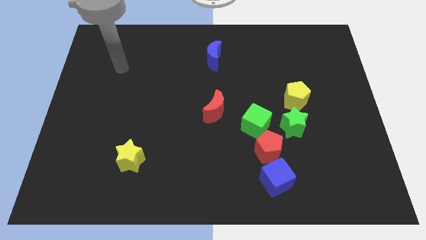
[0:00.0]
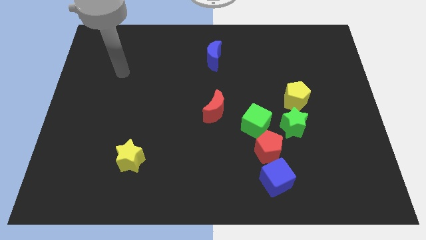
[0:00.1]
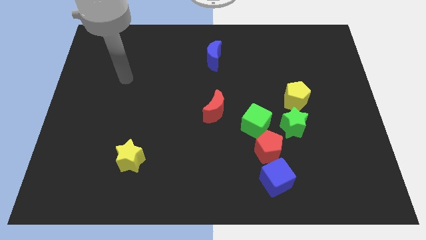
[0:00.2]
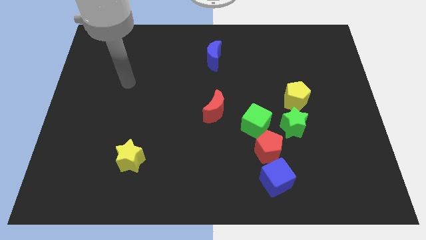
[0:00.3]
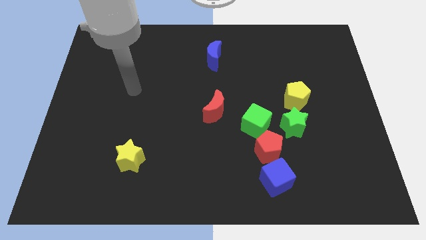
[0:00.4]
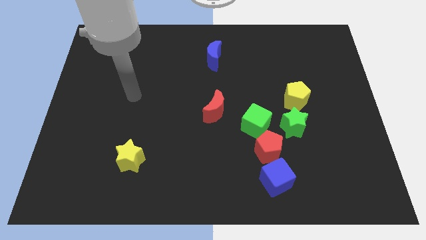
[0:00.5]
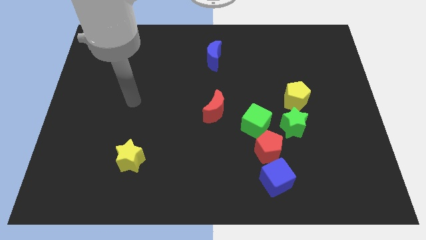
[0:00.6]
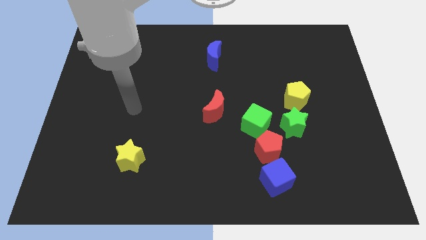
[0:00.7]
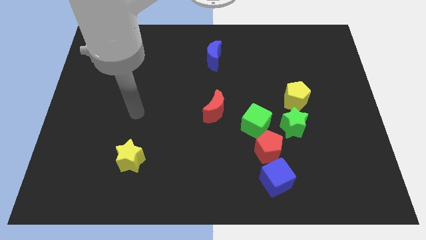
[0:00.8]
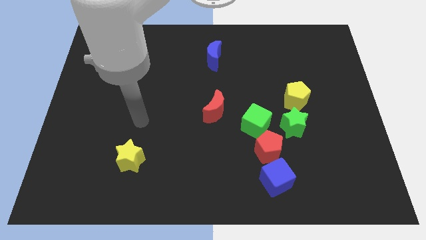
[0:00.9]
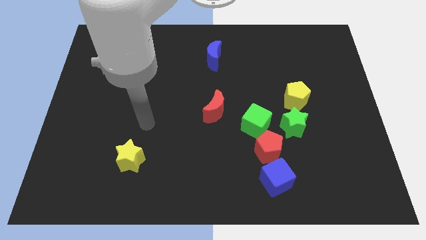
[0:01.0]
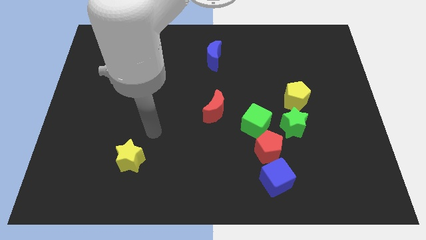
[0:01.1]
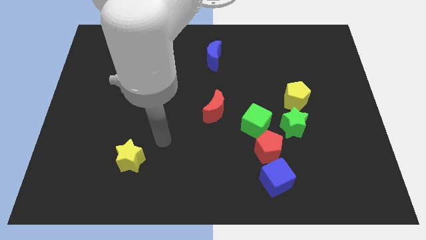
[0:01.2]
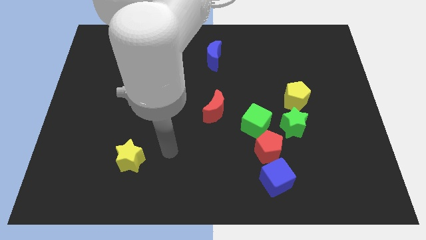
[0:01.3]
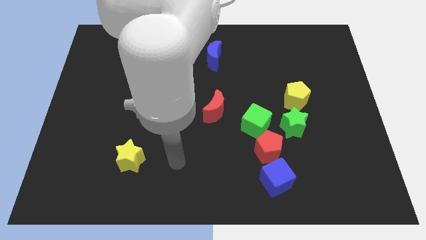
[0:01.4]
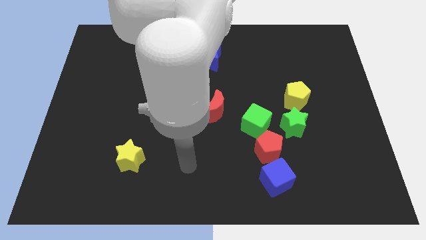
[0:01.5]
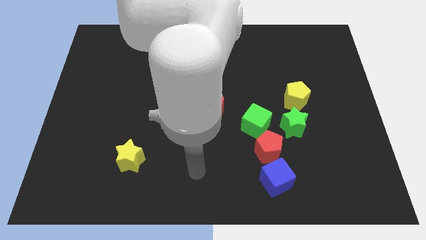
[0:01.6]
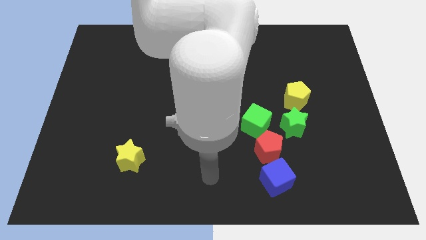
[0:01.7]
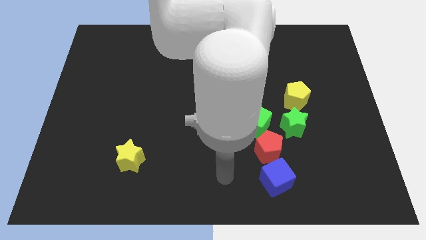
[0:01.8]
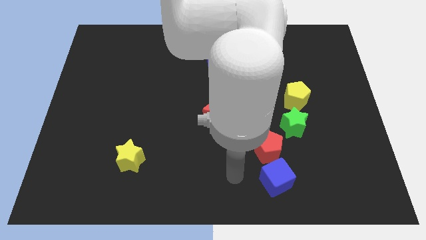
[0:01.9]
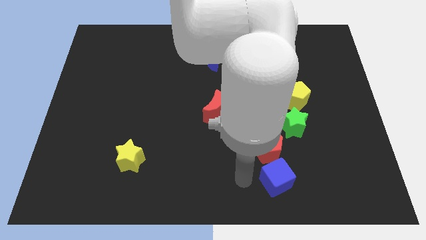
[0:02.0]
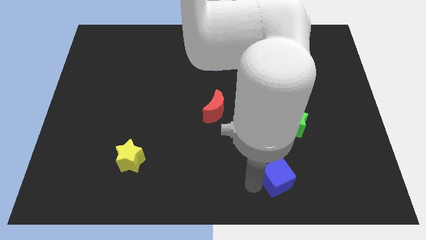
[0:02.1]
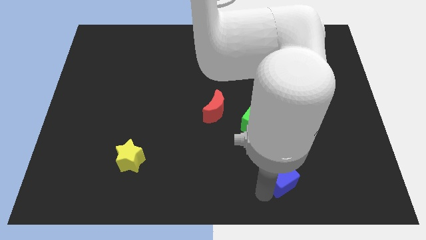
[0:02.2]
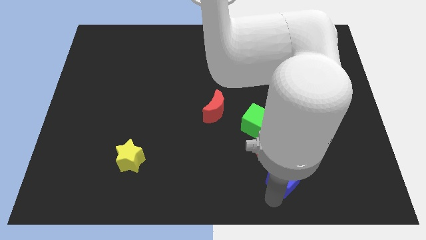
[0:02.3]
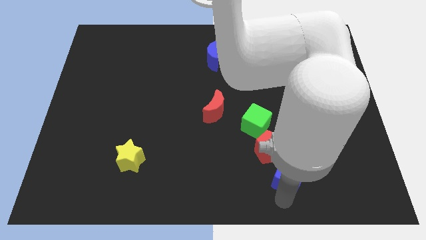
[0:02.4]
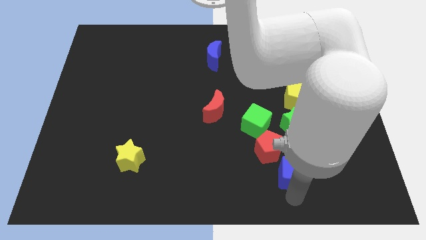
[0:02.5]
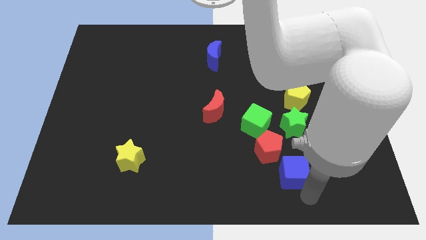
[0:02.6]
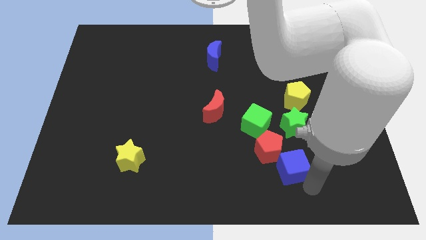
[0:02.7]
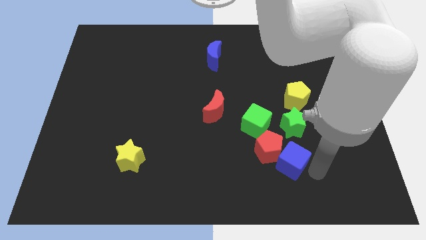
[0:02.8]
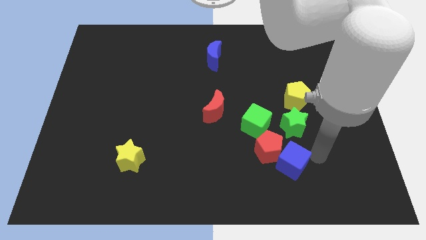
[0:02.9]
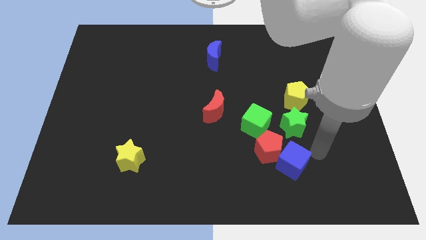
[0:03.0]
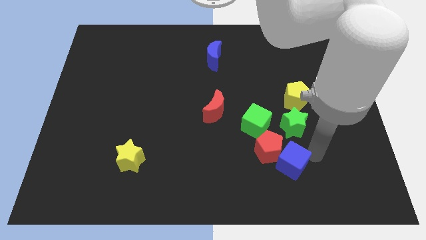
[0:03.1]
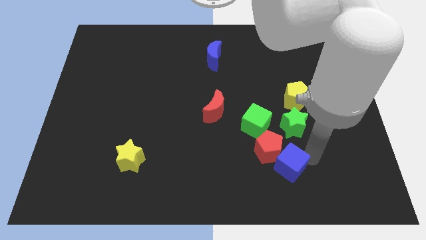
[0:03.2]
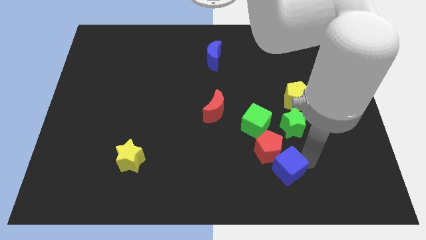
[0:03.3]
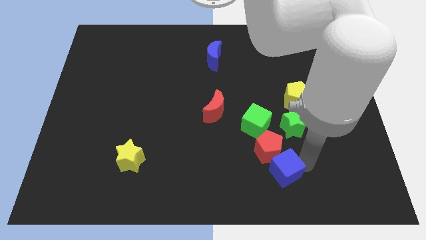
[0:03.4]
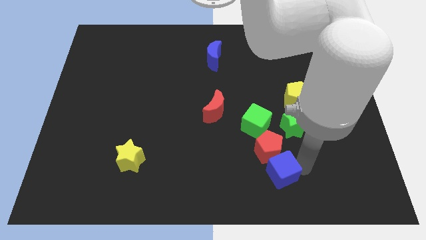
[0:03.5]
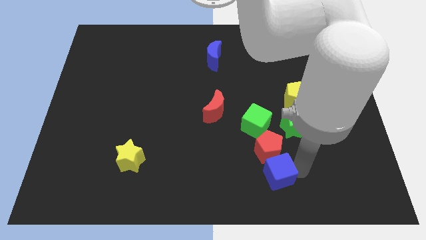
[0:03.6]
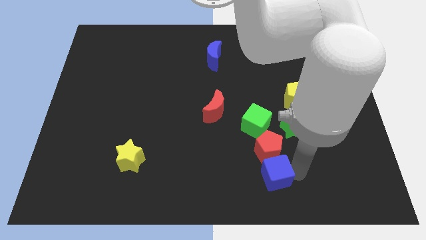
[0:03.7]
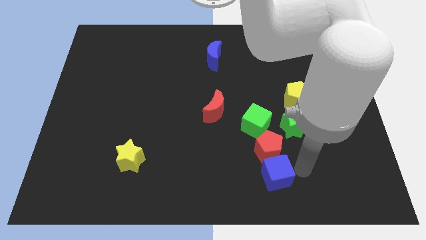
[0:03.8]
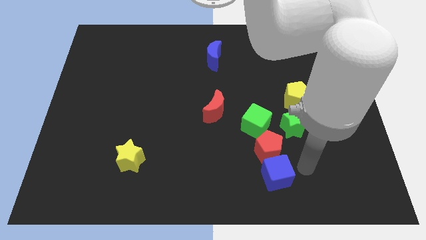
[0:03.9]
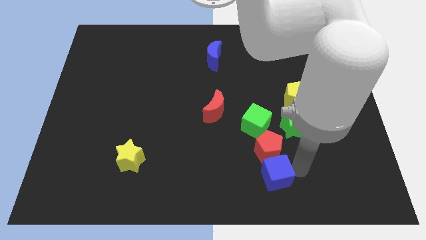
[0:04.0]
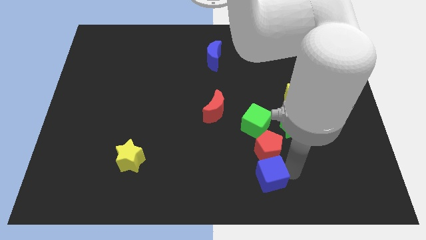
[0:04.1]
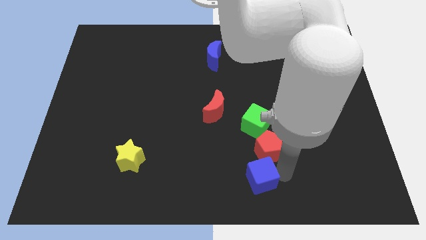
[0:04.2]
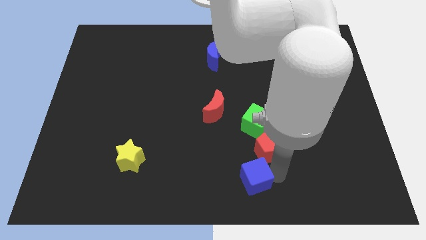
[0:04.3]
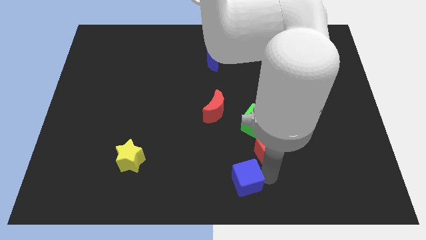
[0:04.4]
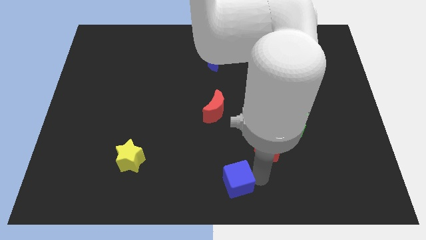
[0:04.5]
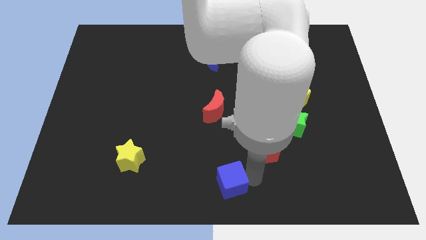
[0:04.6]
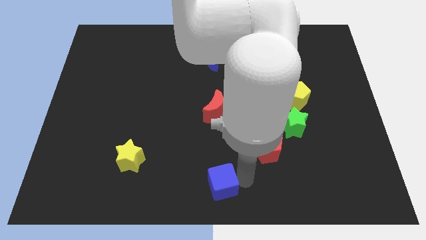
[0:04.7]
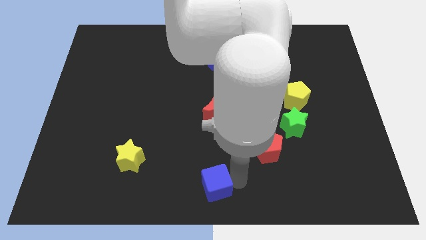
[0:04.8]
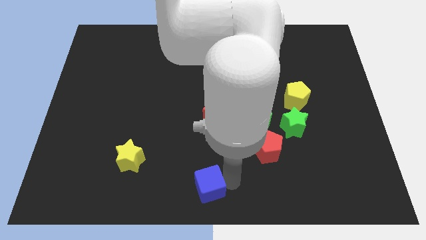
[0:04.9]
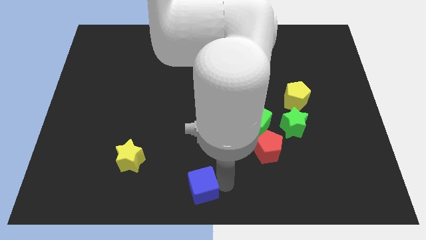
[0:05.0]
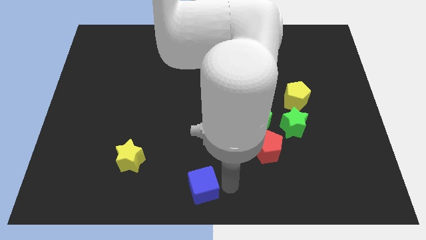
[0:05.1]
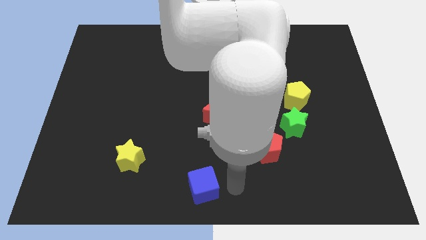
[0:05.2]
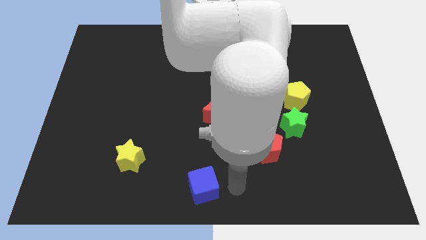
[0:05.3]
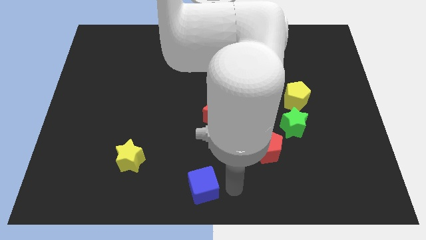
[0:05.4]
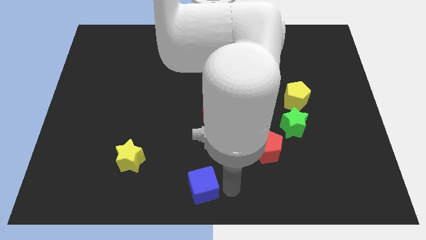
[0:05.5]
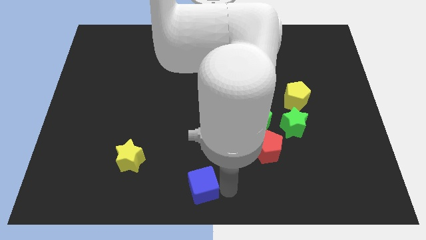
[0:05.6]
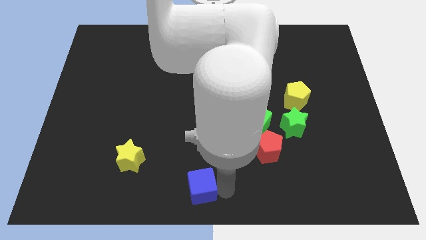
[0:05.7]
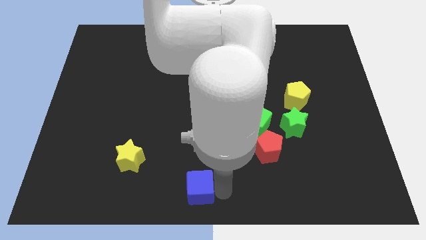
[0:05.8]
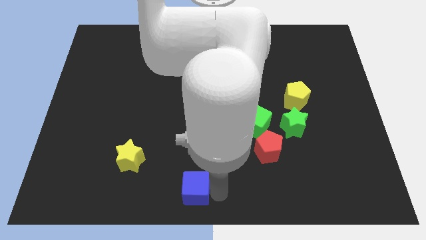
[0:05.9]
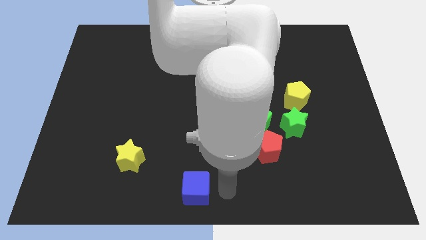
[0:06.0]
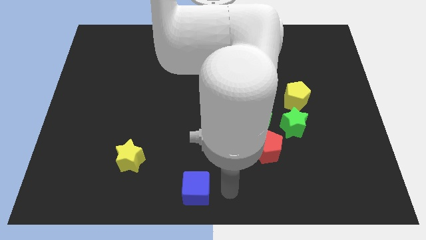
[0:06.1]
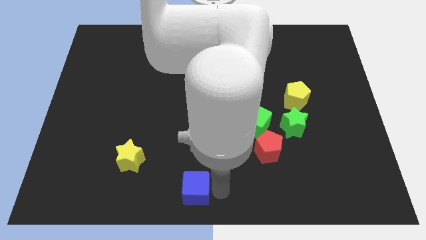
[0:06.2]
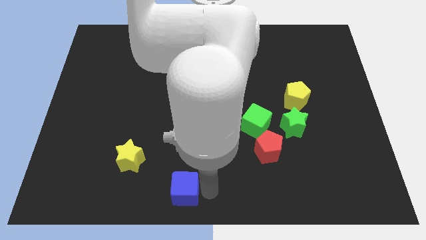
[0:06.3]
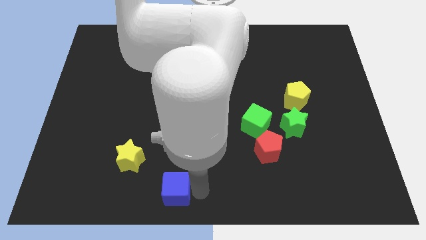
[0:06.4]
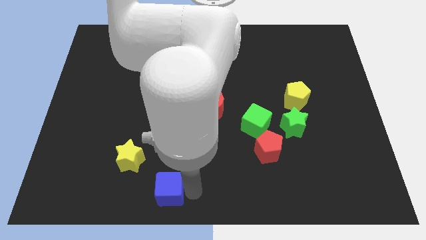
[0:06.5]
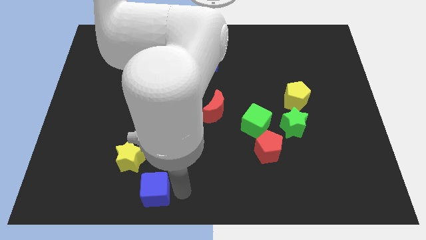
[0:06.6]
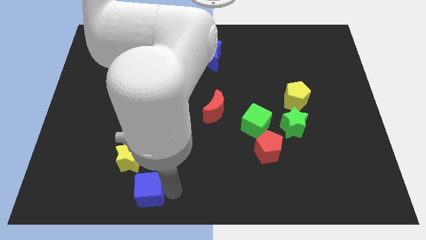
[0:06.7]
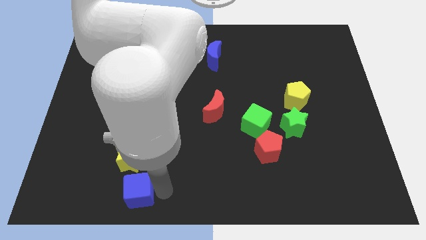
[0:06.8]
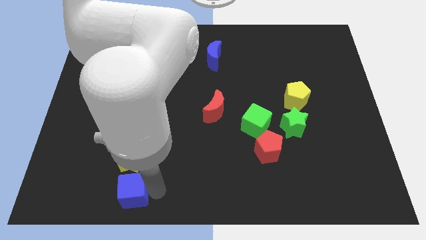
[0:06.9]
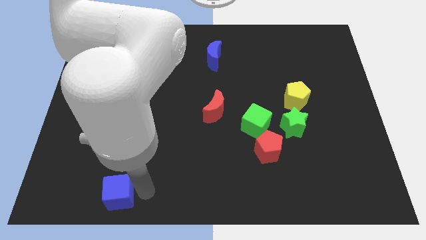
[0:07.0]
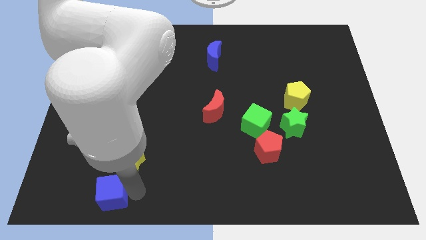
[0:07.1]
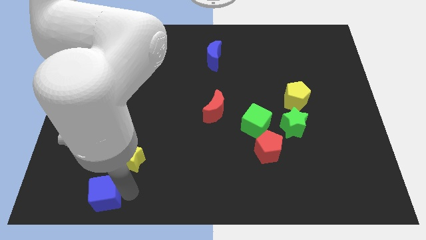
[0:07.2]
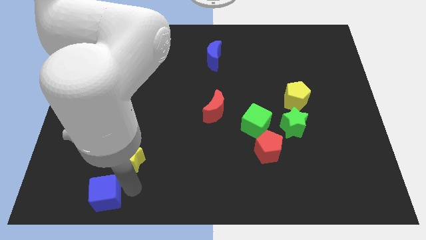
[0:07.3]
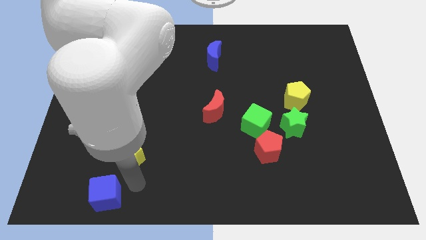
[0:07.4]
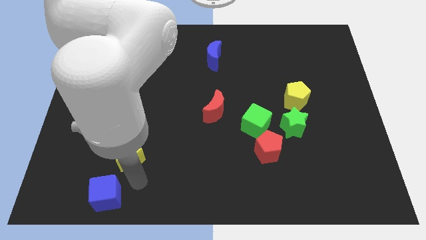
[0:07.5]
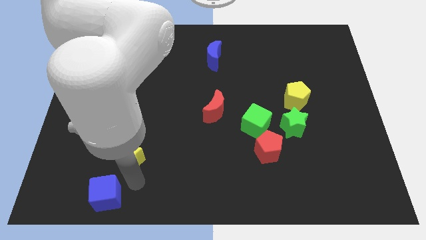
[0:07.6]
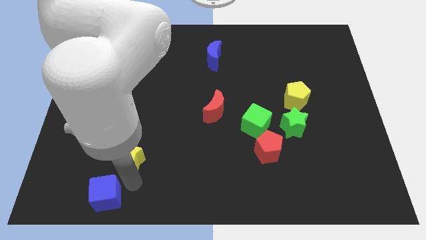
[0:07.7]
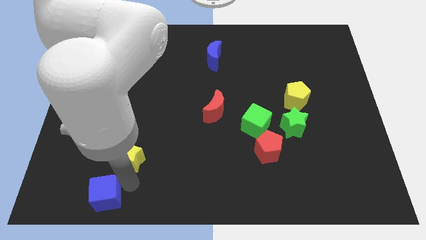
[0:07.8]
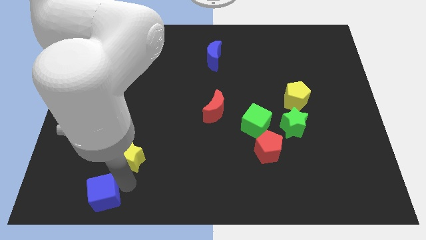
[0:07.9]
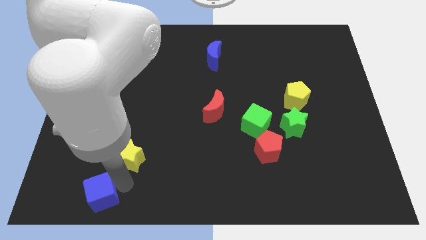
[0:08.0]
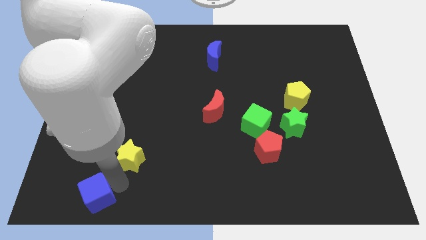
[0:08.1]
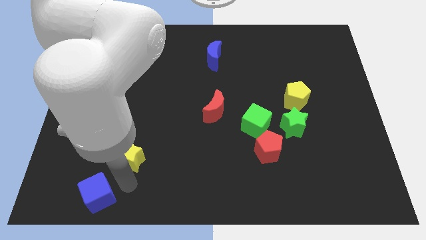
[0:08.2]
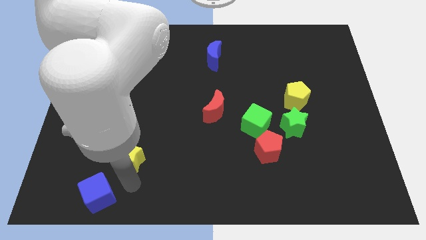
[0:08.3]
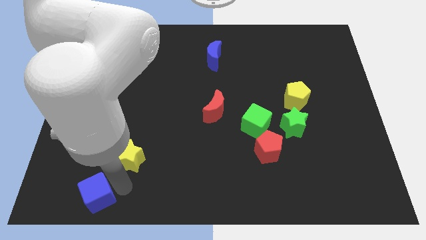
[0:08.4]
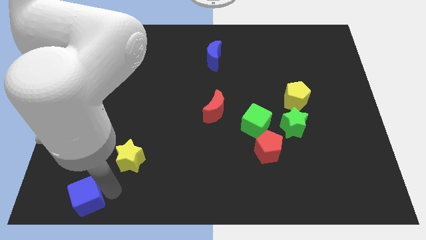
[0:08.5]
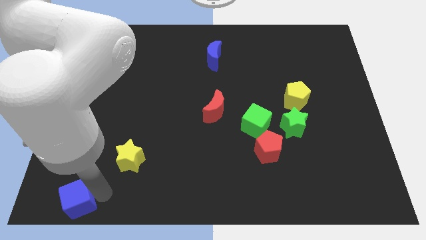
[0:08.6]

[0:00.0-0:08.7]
move the blue cube to the bottom left corner
